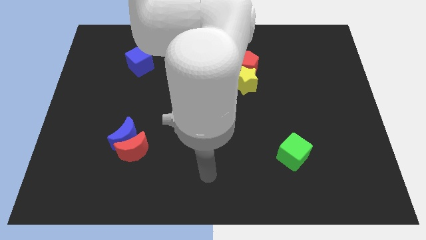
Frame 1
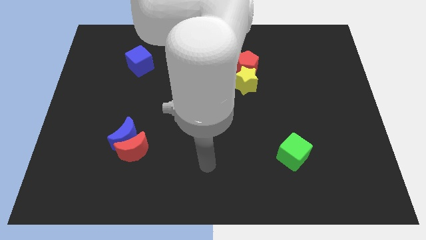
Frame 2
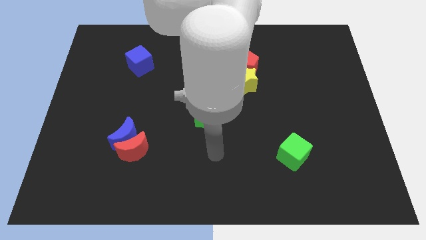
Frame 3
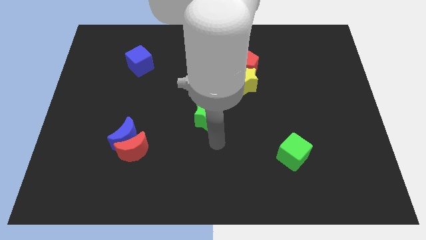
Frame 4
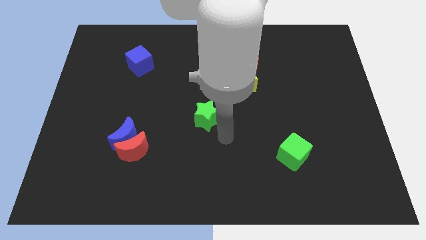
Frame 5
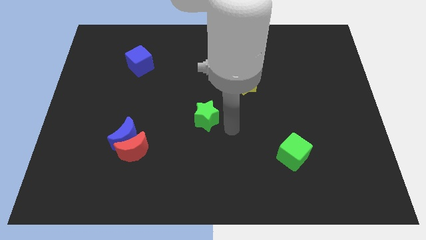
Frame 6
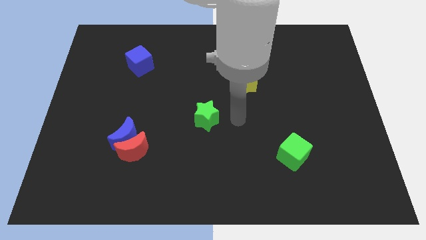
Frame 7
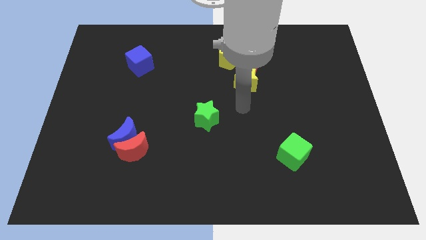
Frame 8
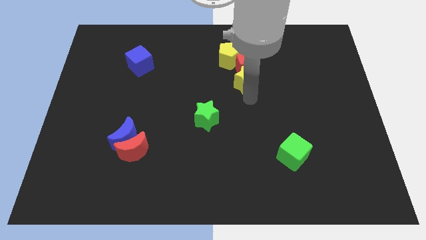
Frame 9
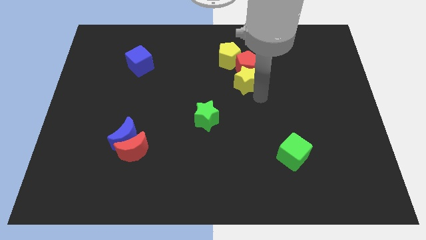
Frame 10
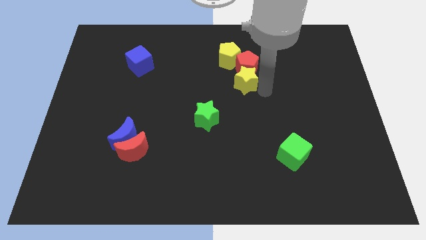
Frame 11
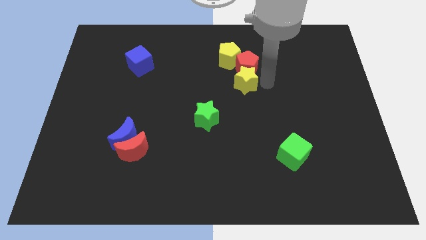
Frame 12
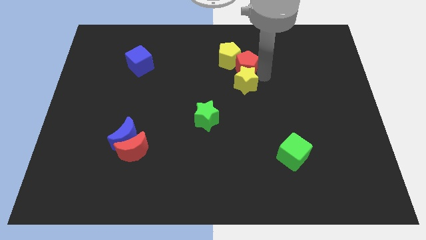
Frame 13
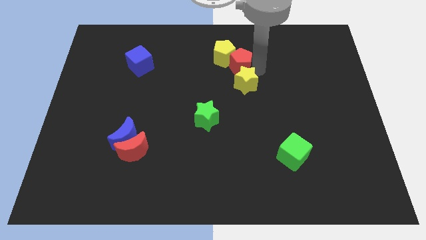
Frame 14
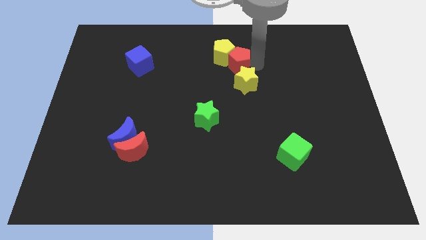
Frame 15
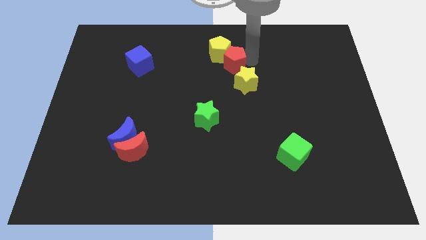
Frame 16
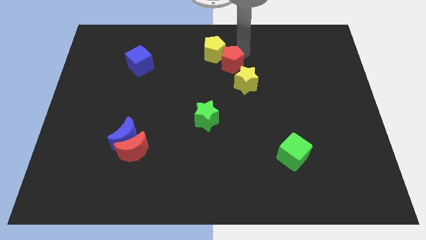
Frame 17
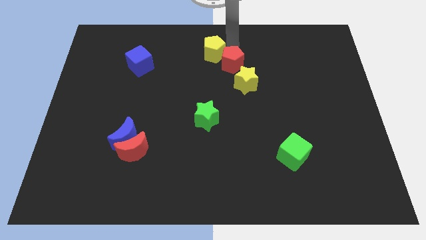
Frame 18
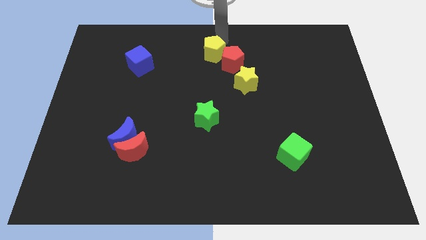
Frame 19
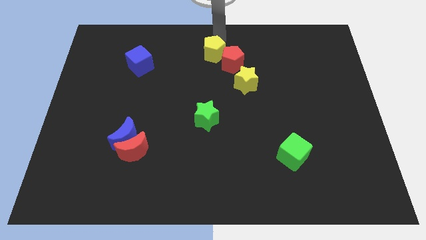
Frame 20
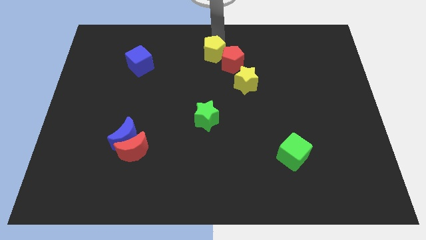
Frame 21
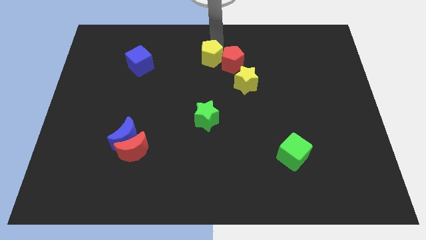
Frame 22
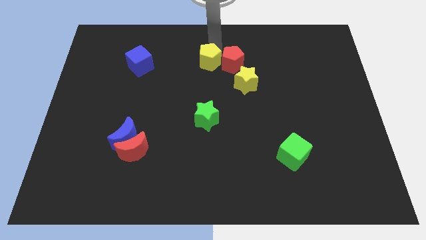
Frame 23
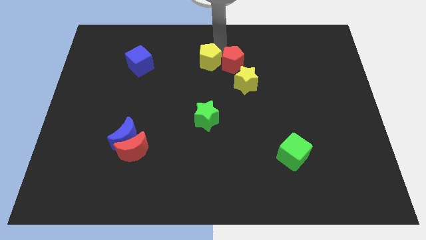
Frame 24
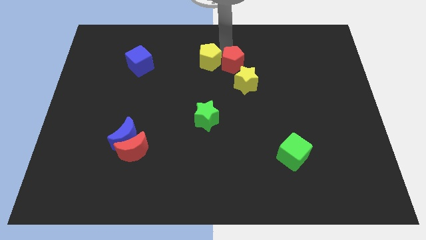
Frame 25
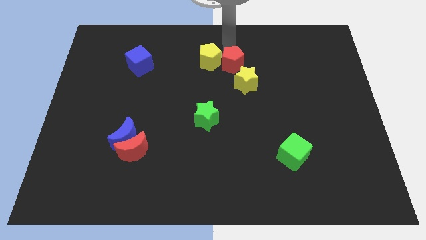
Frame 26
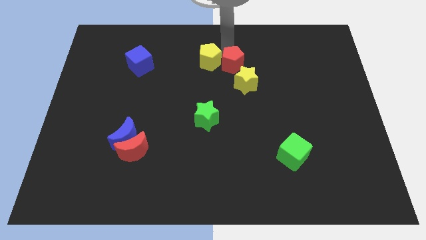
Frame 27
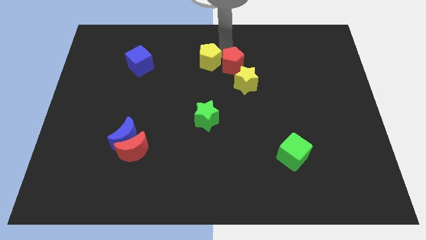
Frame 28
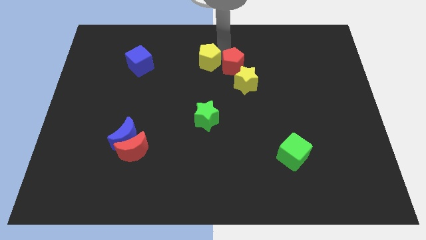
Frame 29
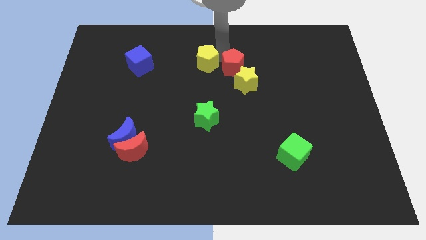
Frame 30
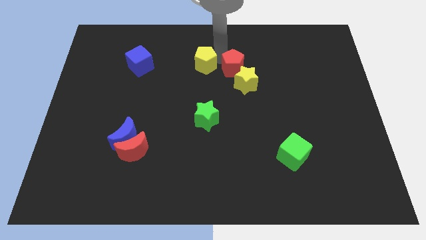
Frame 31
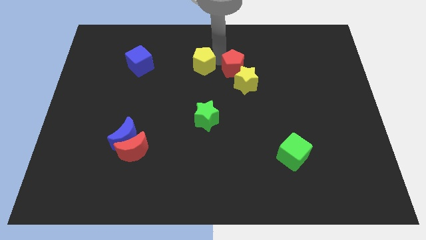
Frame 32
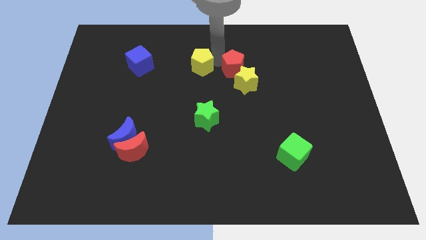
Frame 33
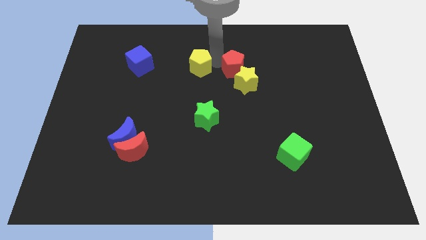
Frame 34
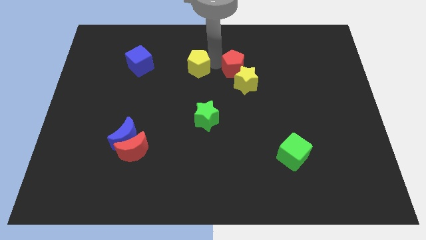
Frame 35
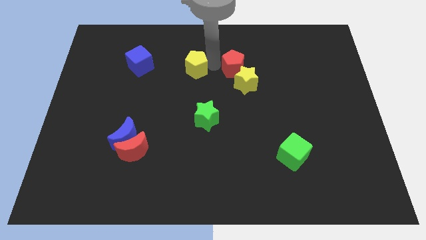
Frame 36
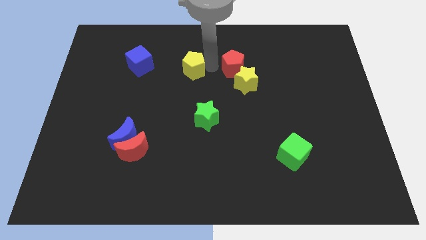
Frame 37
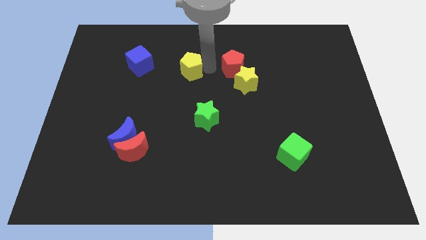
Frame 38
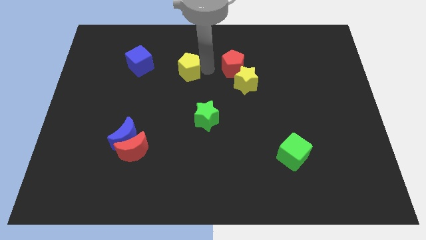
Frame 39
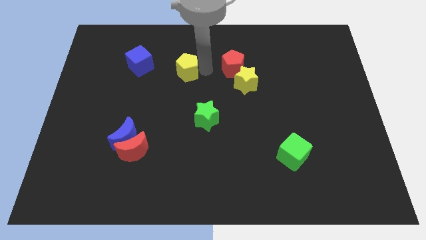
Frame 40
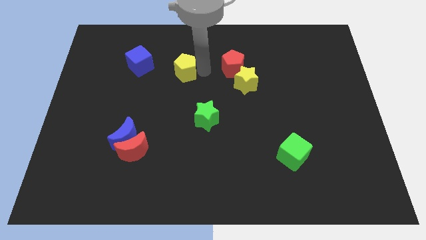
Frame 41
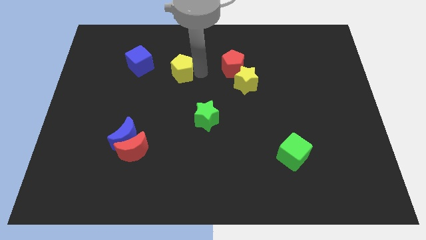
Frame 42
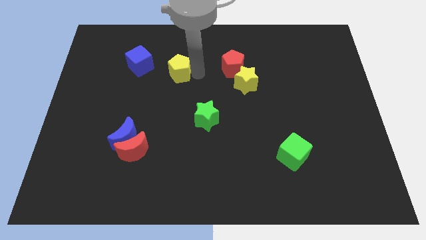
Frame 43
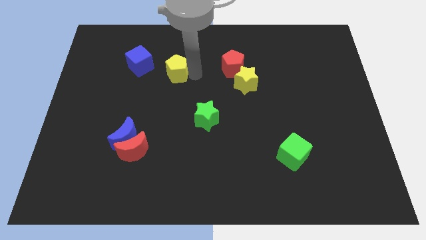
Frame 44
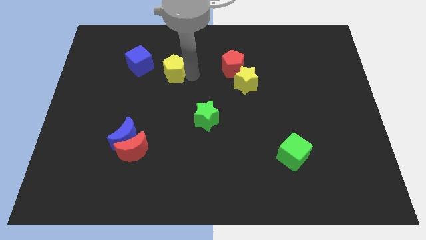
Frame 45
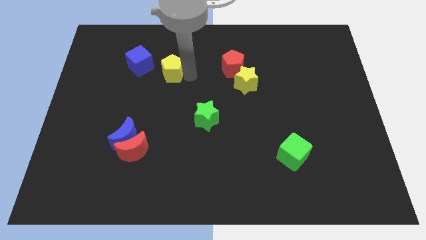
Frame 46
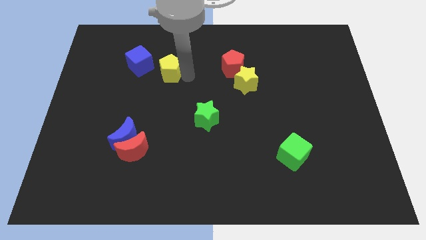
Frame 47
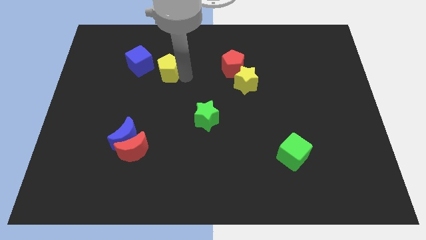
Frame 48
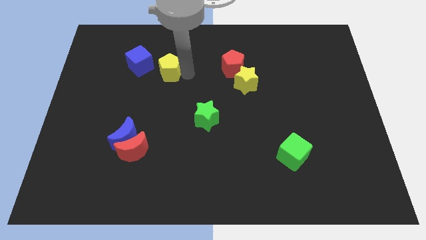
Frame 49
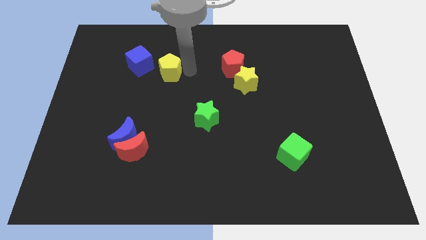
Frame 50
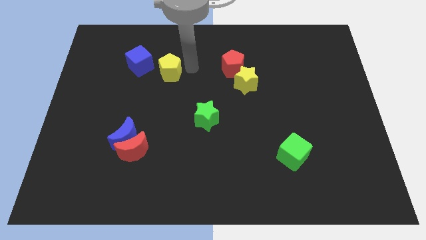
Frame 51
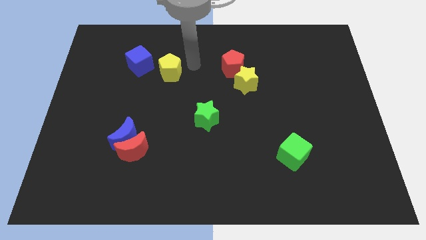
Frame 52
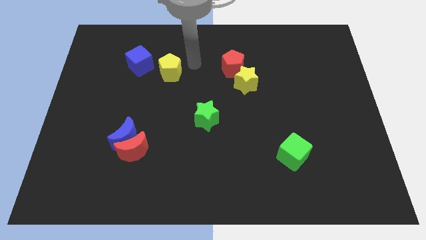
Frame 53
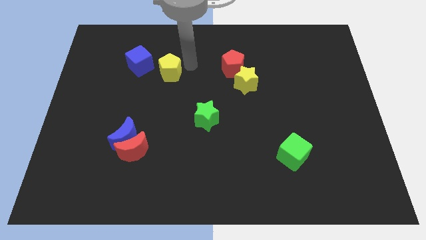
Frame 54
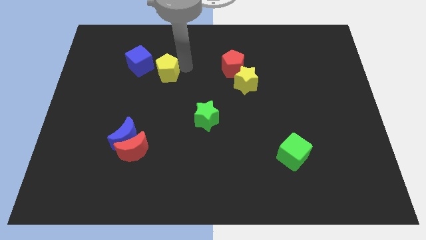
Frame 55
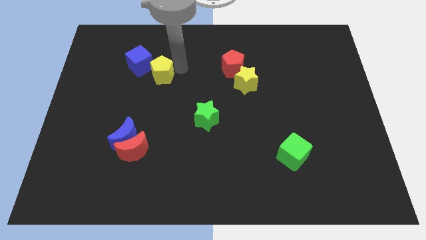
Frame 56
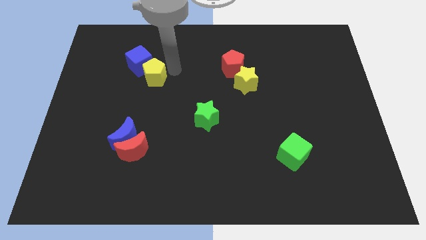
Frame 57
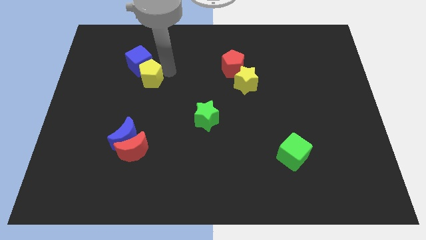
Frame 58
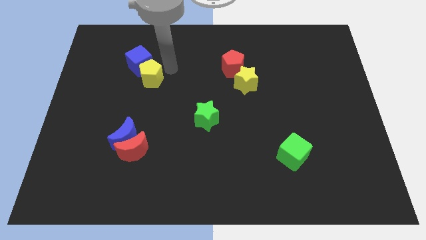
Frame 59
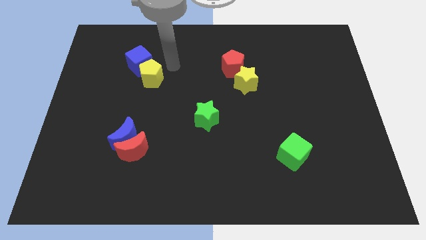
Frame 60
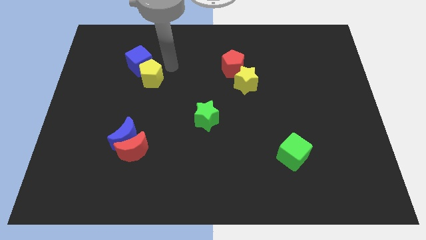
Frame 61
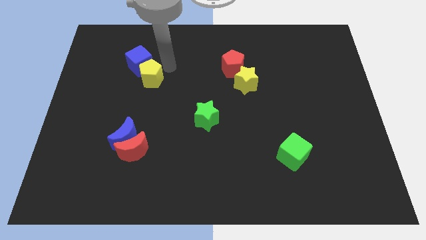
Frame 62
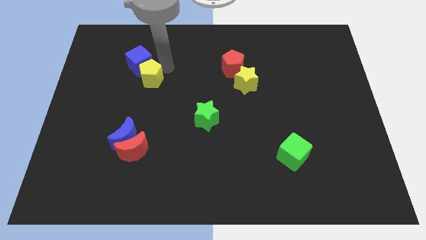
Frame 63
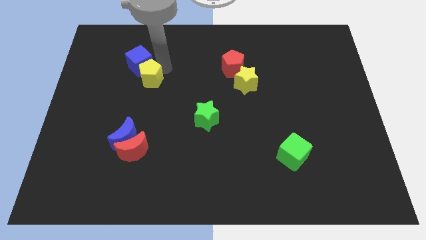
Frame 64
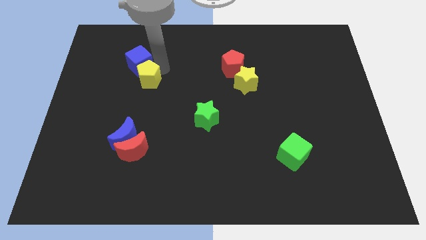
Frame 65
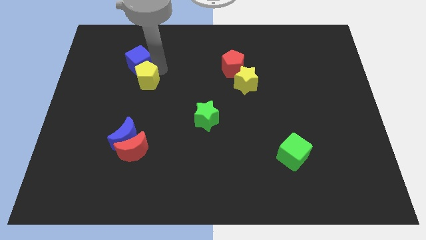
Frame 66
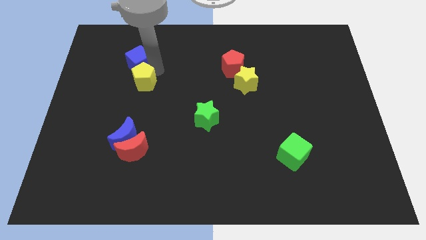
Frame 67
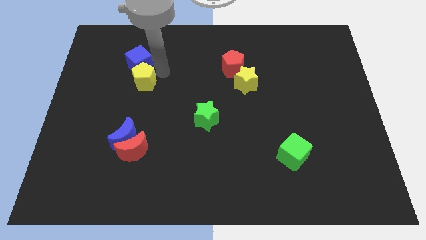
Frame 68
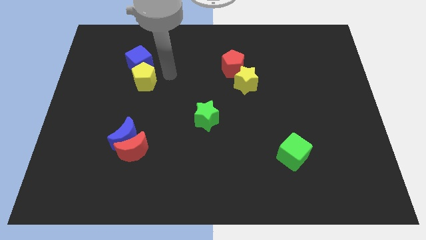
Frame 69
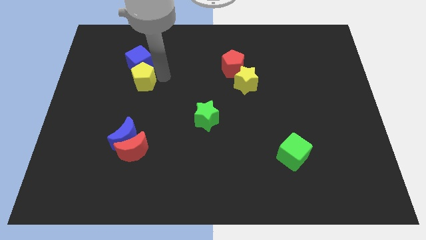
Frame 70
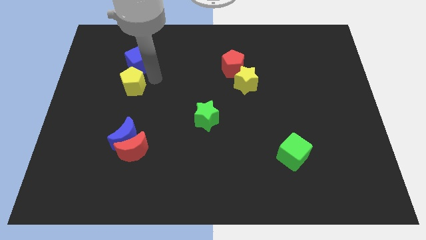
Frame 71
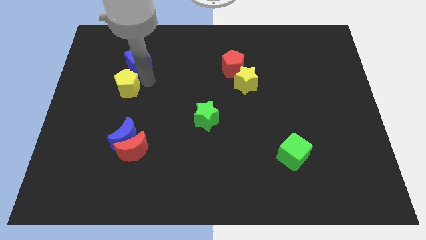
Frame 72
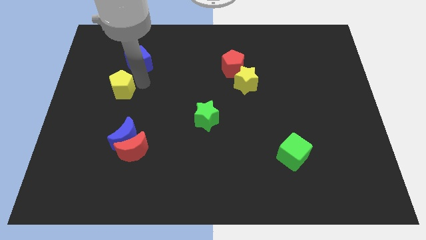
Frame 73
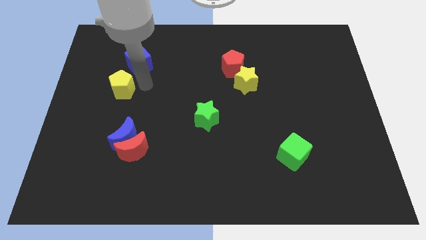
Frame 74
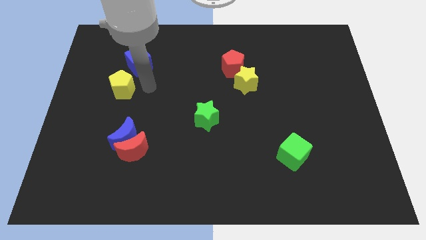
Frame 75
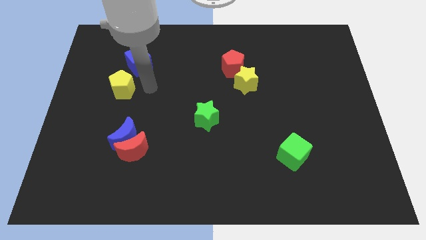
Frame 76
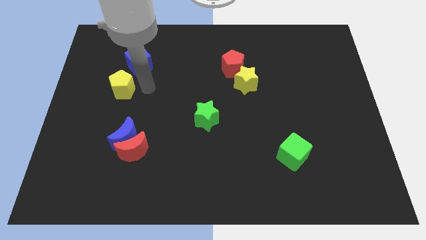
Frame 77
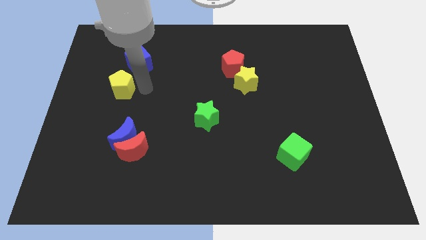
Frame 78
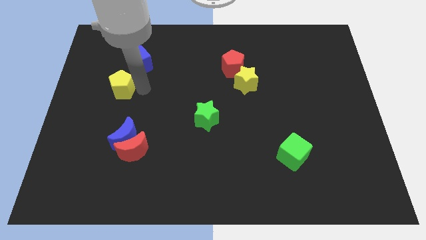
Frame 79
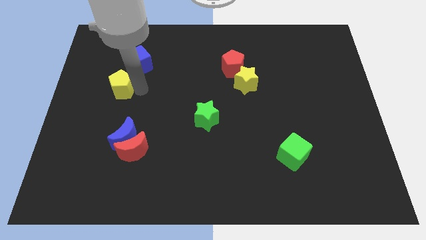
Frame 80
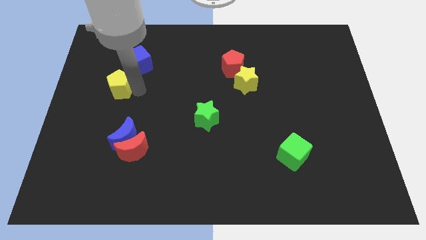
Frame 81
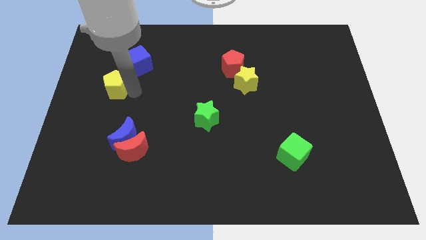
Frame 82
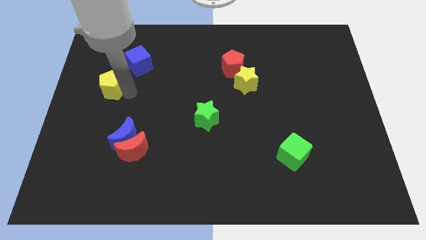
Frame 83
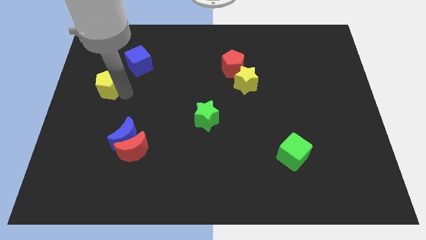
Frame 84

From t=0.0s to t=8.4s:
slide the yellow pentagon to the left side of the board
